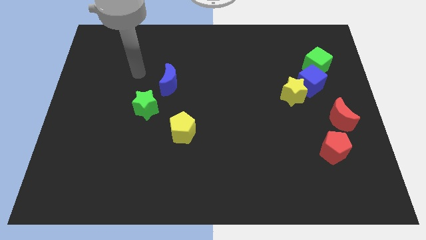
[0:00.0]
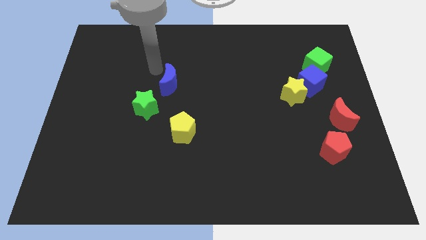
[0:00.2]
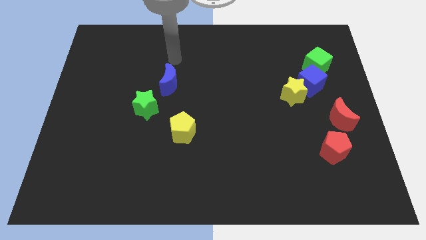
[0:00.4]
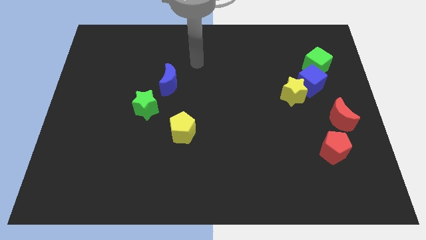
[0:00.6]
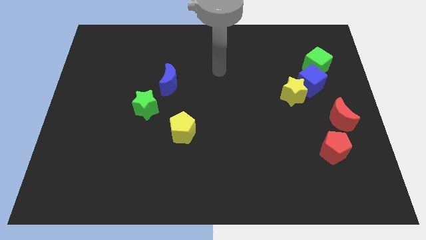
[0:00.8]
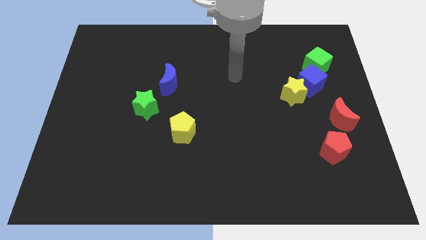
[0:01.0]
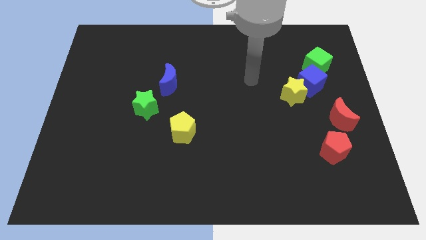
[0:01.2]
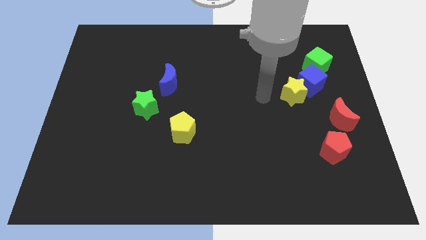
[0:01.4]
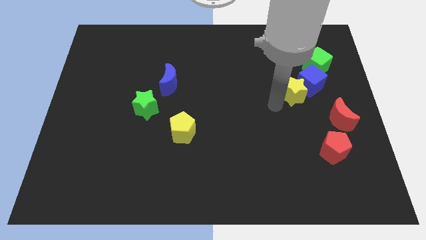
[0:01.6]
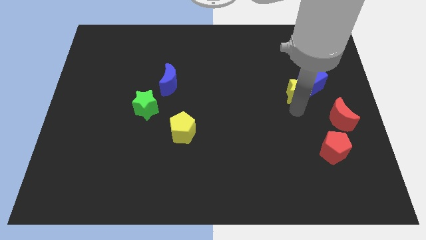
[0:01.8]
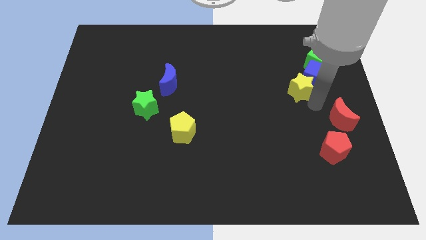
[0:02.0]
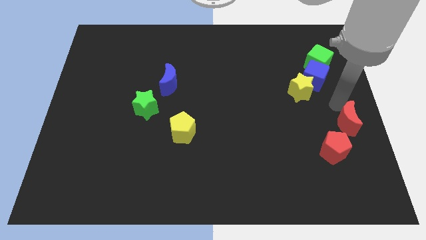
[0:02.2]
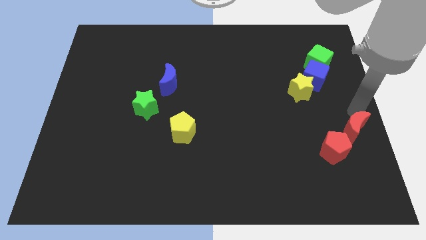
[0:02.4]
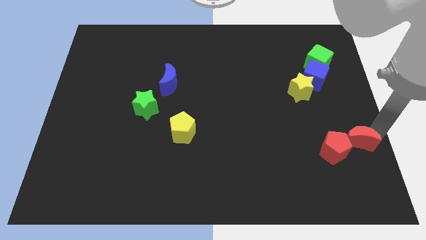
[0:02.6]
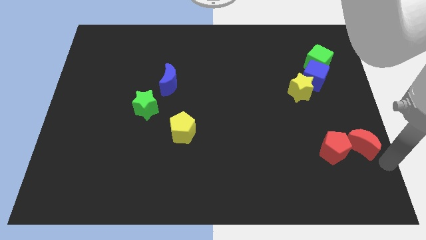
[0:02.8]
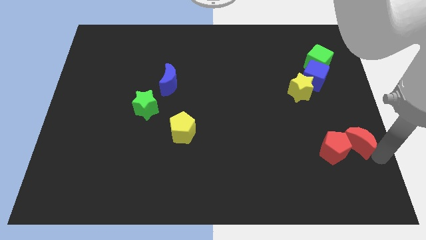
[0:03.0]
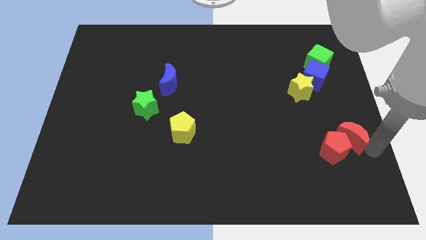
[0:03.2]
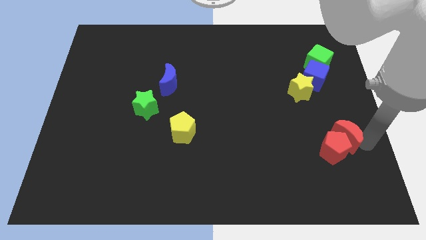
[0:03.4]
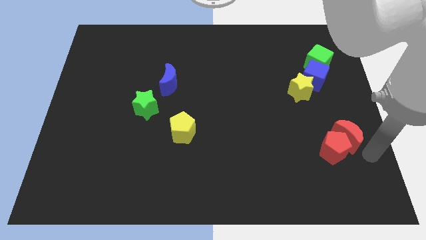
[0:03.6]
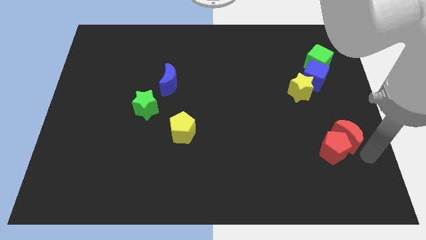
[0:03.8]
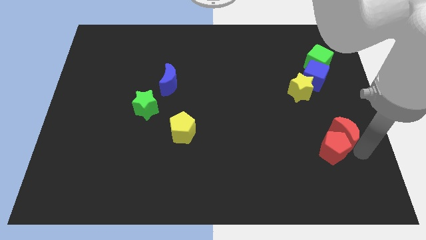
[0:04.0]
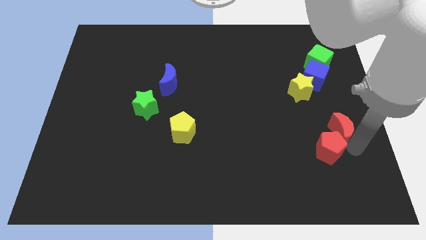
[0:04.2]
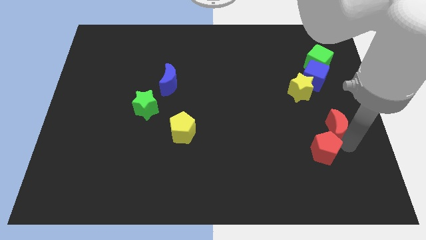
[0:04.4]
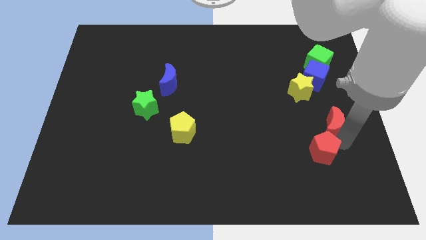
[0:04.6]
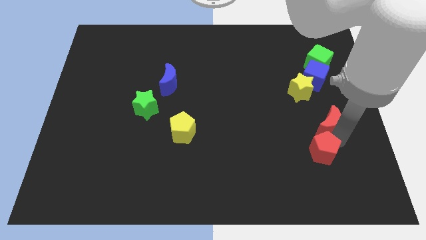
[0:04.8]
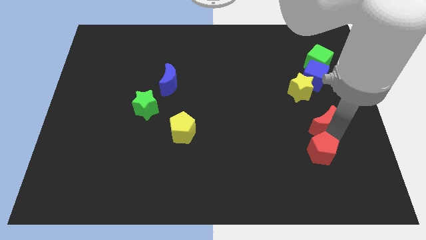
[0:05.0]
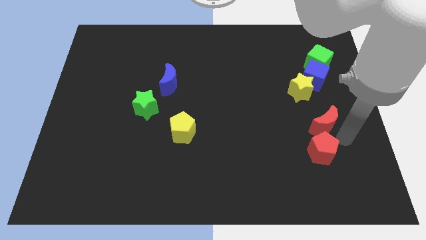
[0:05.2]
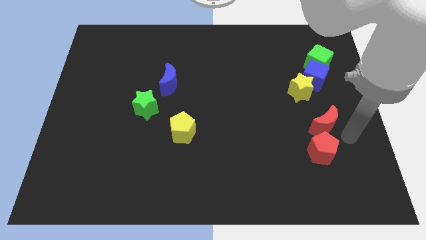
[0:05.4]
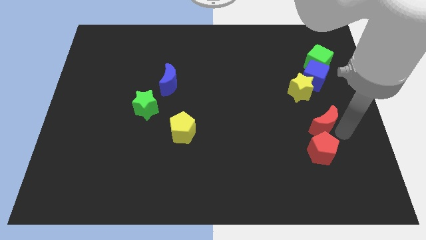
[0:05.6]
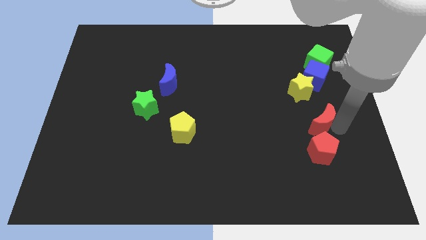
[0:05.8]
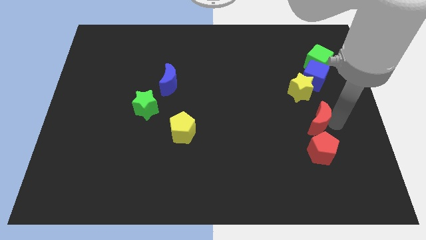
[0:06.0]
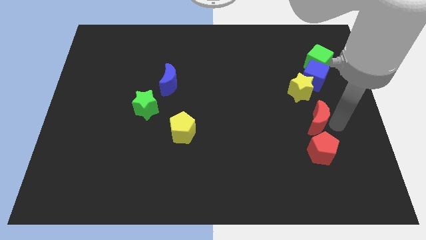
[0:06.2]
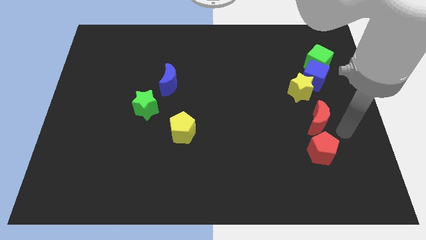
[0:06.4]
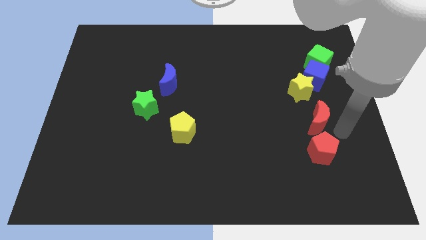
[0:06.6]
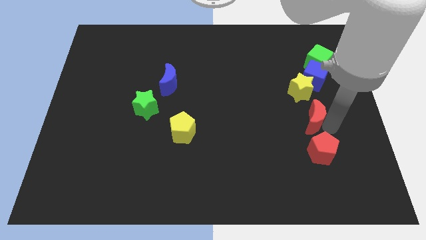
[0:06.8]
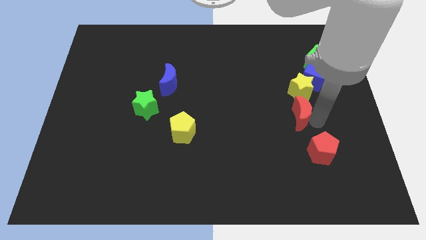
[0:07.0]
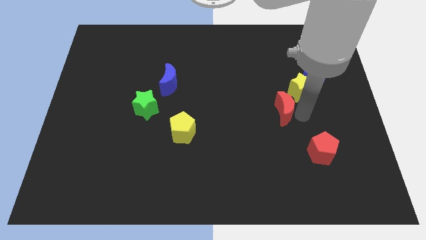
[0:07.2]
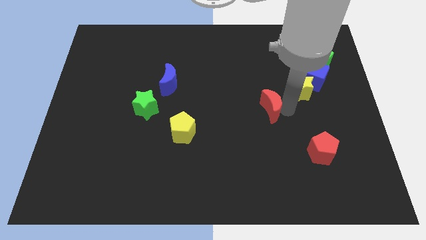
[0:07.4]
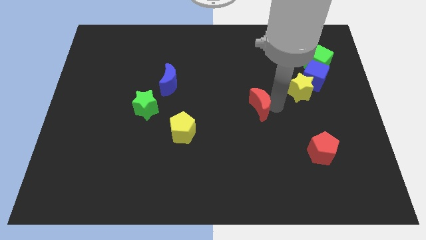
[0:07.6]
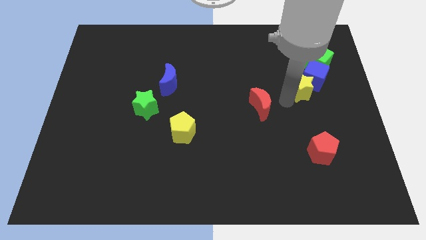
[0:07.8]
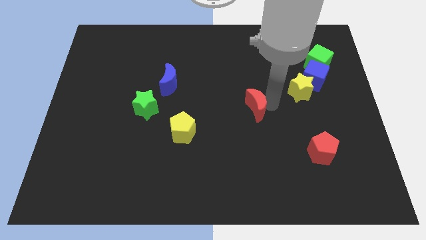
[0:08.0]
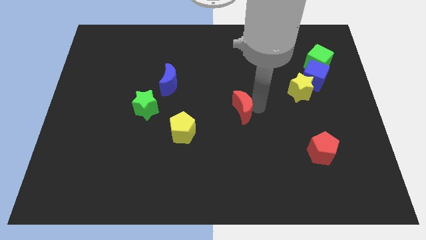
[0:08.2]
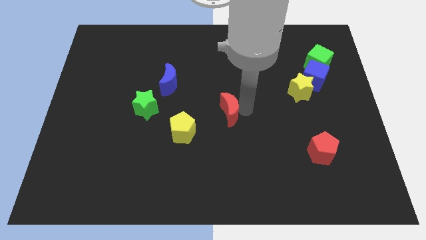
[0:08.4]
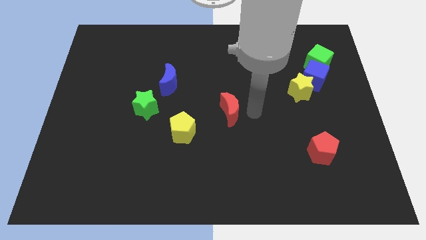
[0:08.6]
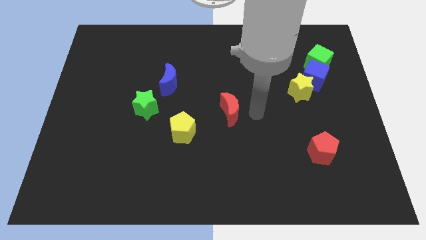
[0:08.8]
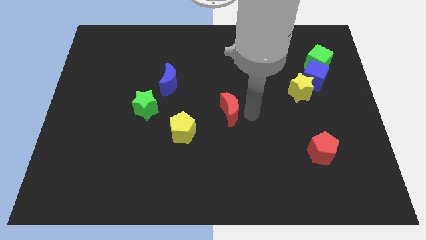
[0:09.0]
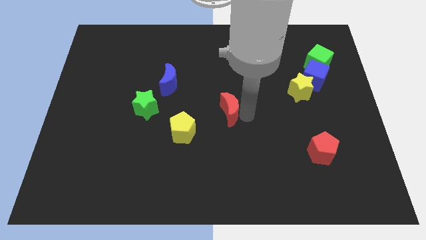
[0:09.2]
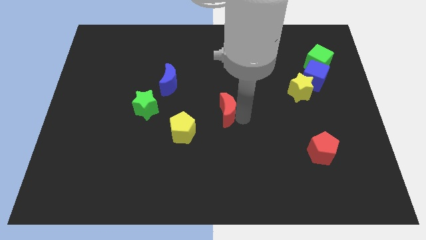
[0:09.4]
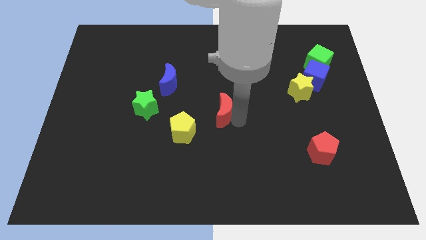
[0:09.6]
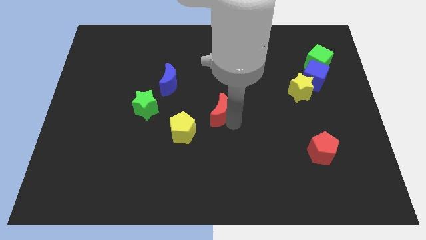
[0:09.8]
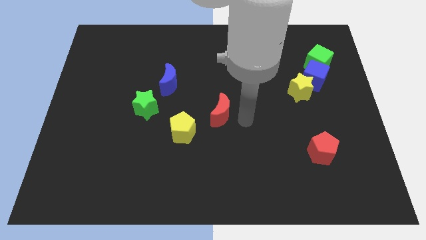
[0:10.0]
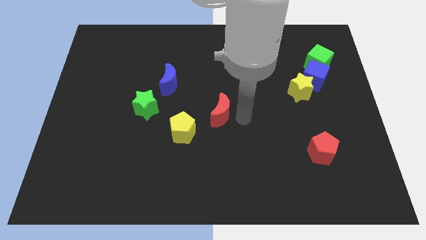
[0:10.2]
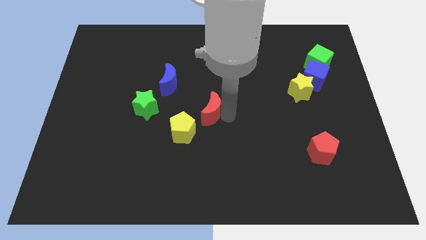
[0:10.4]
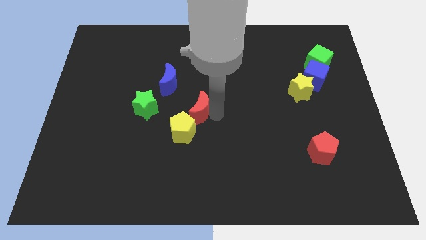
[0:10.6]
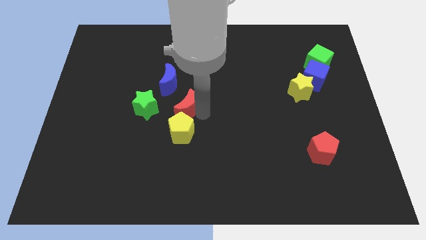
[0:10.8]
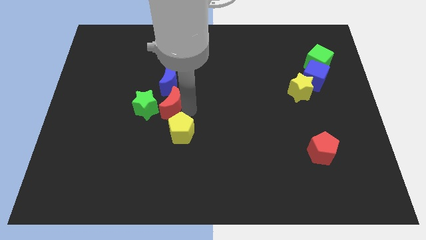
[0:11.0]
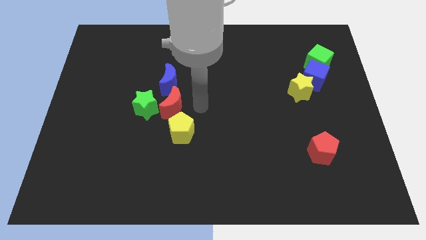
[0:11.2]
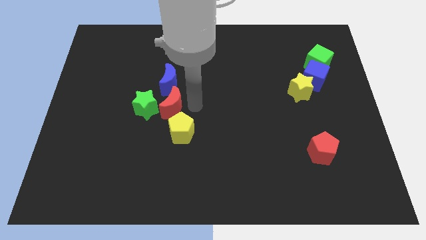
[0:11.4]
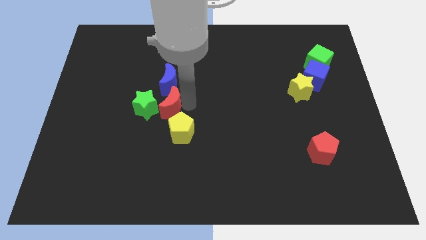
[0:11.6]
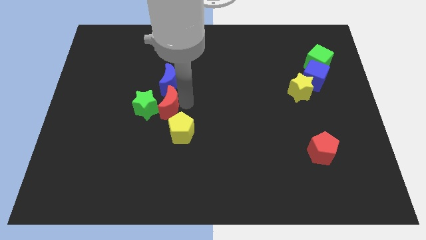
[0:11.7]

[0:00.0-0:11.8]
slide the red moon to the green star

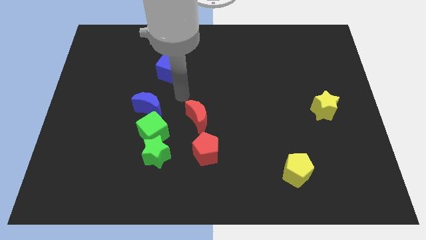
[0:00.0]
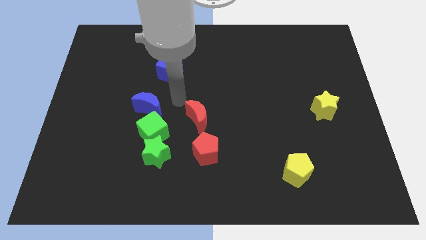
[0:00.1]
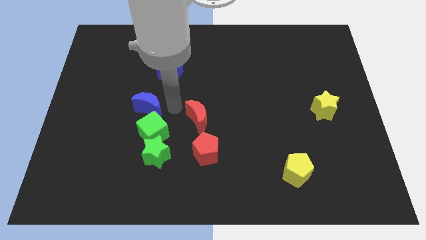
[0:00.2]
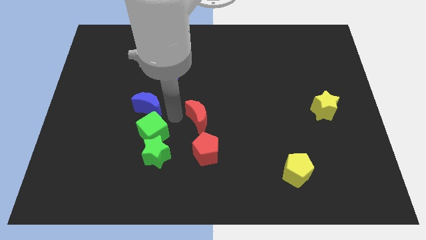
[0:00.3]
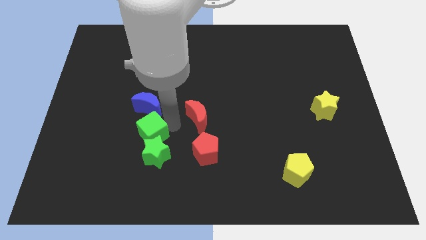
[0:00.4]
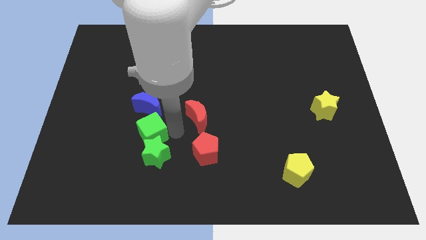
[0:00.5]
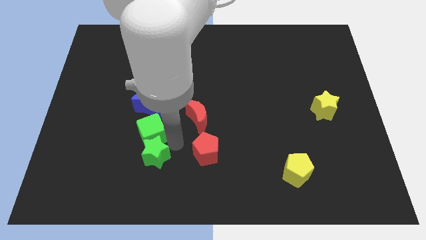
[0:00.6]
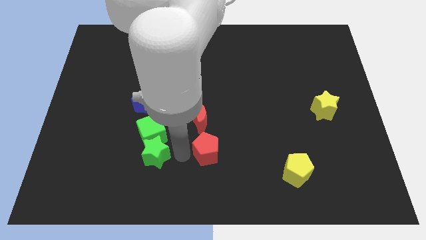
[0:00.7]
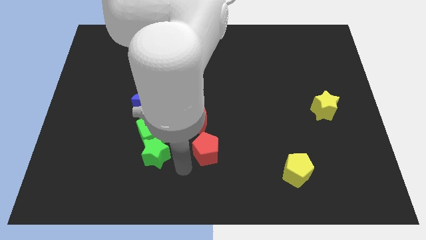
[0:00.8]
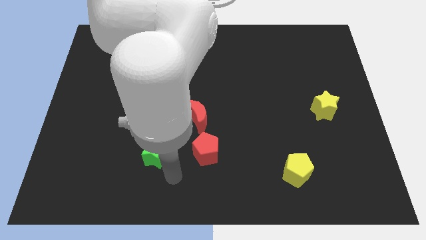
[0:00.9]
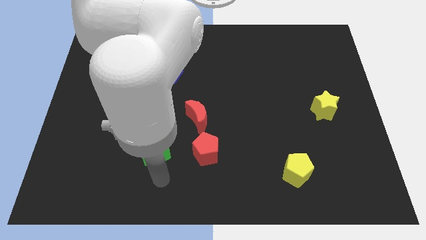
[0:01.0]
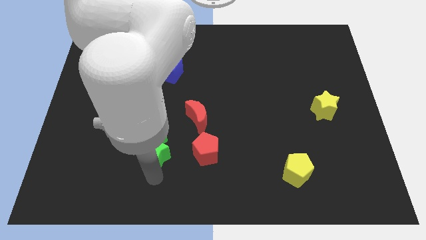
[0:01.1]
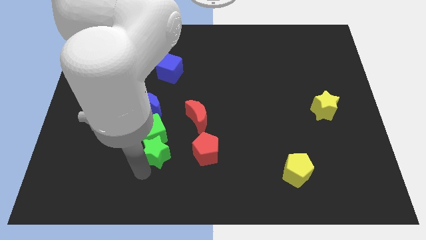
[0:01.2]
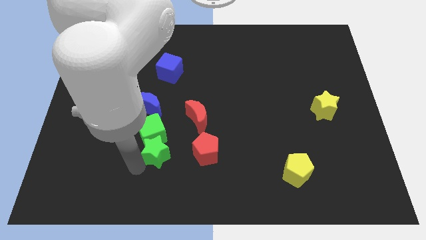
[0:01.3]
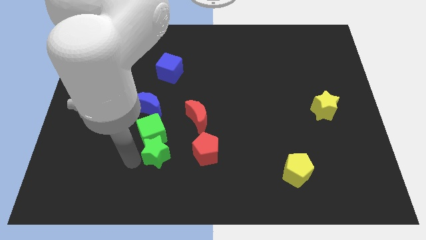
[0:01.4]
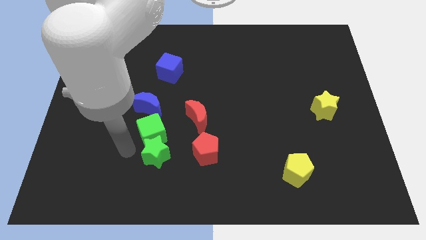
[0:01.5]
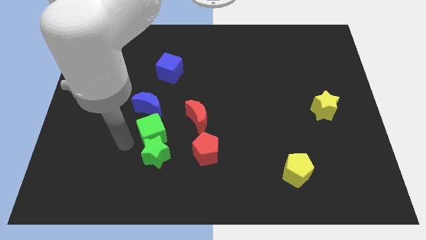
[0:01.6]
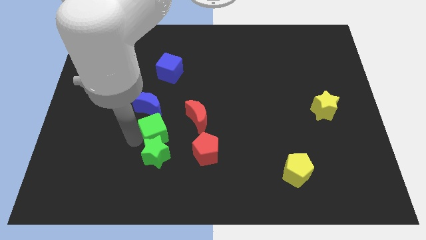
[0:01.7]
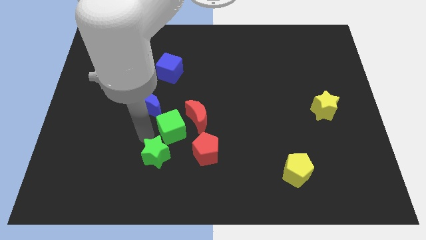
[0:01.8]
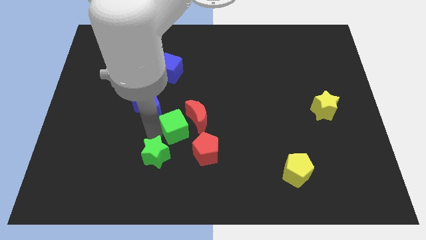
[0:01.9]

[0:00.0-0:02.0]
move the green cube next to the red moon
